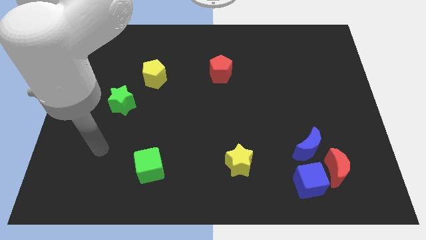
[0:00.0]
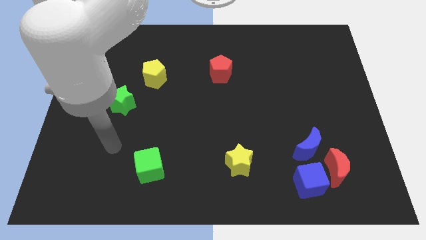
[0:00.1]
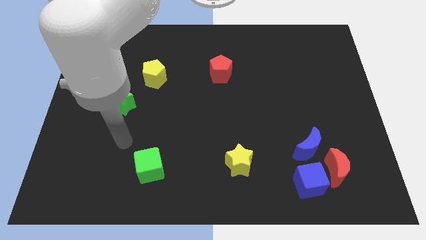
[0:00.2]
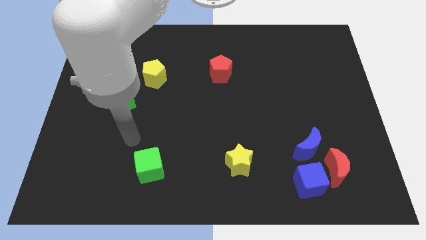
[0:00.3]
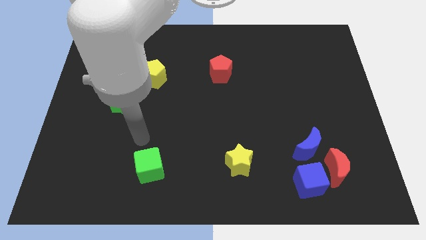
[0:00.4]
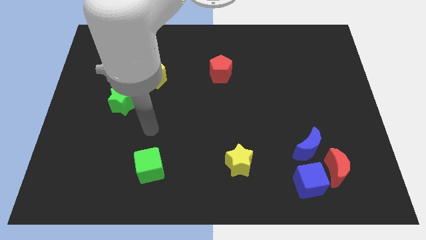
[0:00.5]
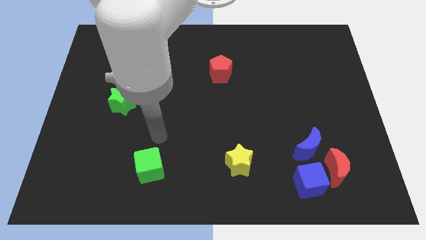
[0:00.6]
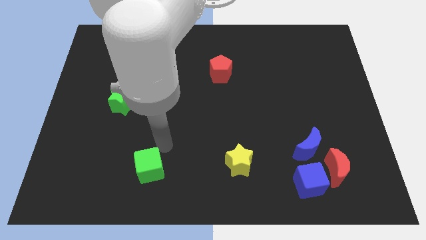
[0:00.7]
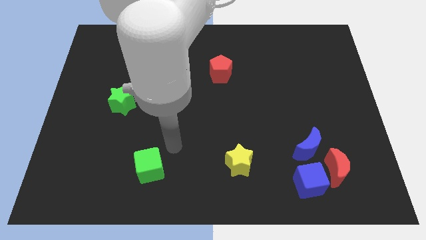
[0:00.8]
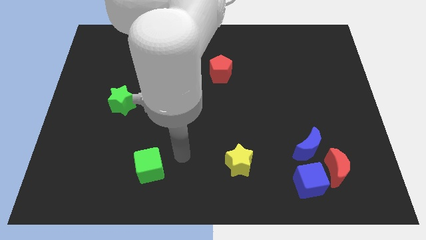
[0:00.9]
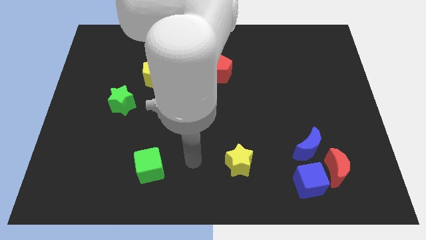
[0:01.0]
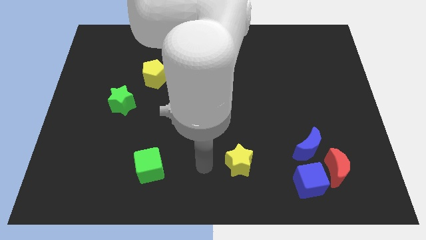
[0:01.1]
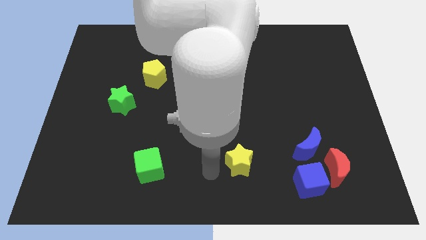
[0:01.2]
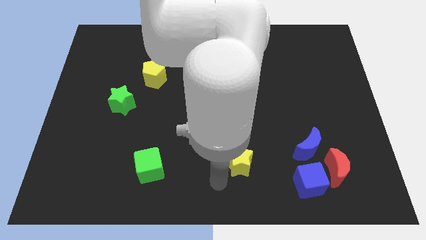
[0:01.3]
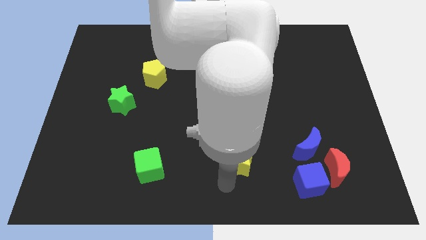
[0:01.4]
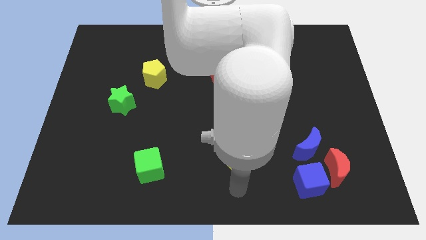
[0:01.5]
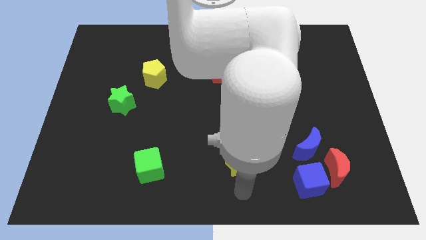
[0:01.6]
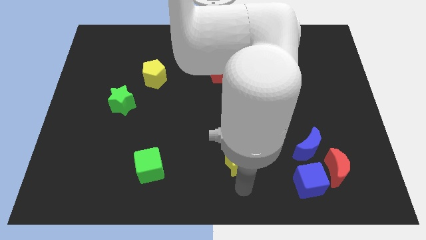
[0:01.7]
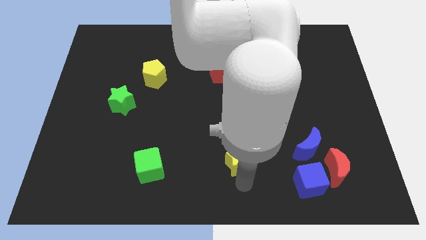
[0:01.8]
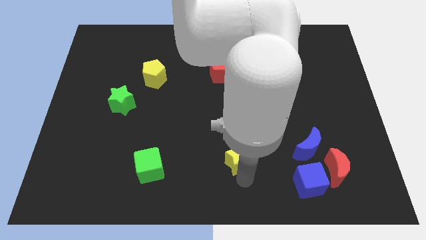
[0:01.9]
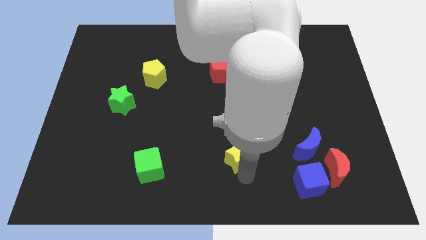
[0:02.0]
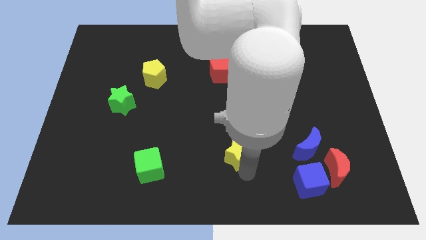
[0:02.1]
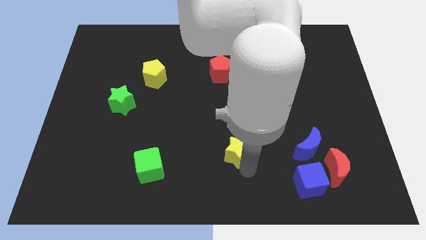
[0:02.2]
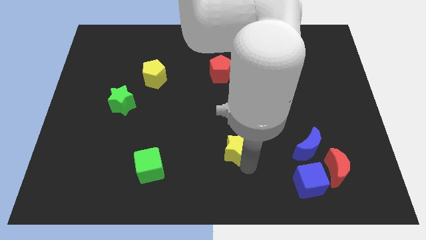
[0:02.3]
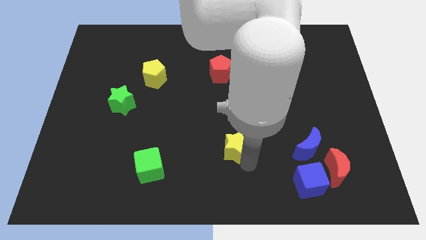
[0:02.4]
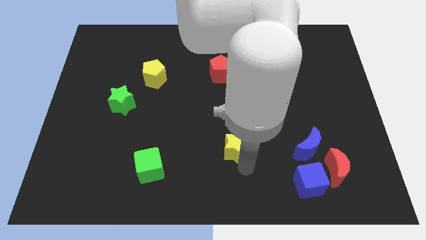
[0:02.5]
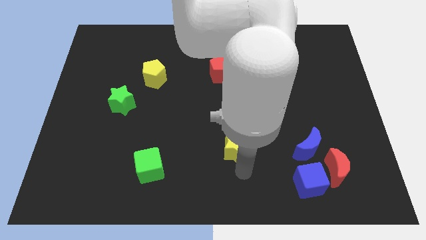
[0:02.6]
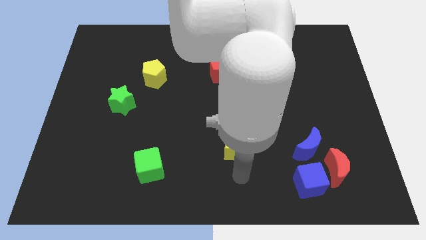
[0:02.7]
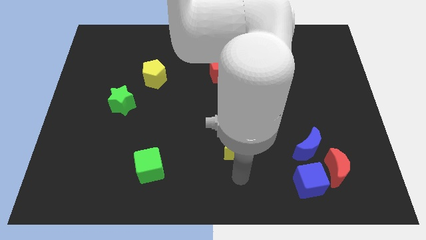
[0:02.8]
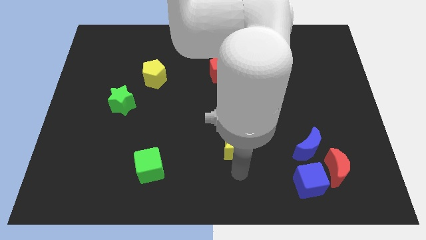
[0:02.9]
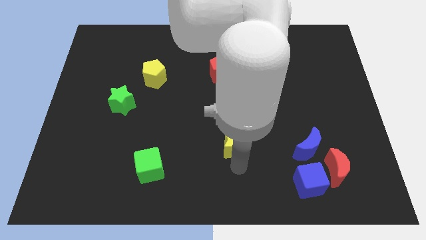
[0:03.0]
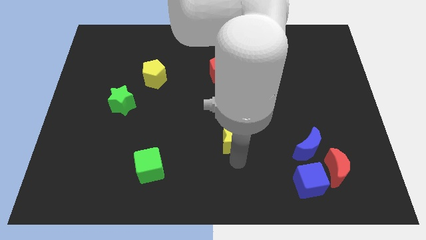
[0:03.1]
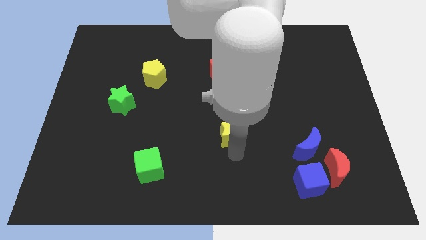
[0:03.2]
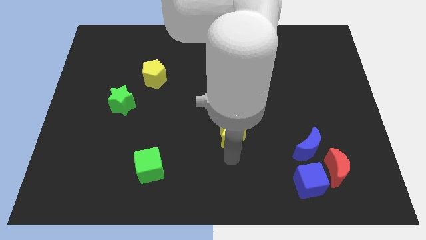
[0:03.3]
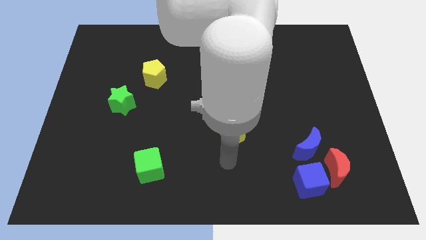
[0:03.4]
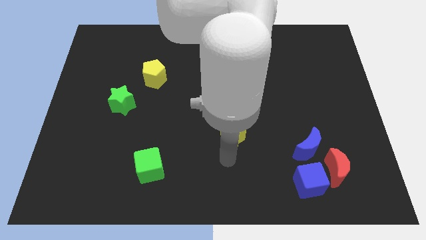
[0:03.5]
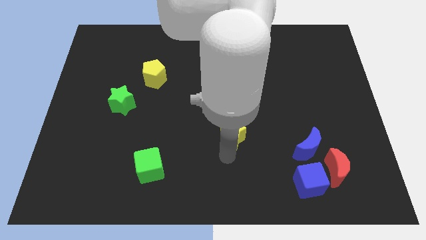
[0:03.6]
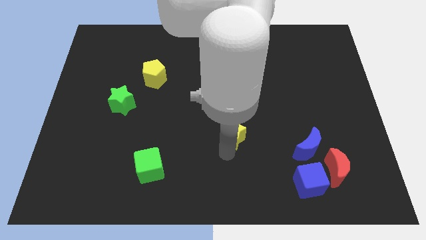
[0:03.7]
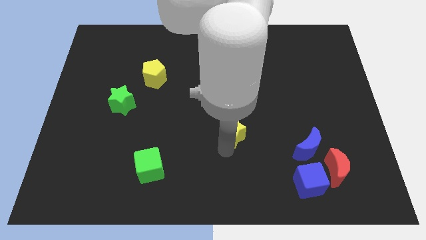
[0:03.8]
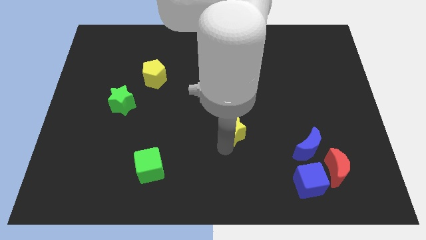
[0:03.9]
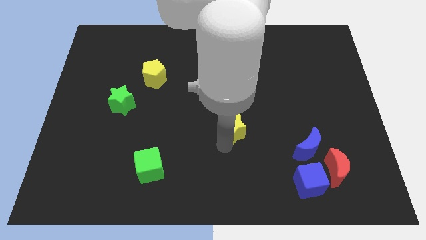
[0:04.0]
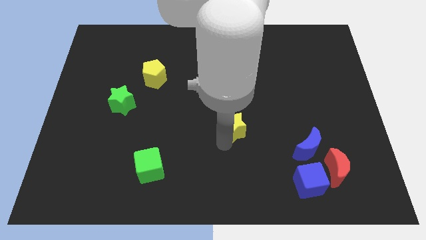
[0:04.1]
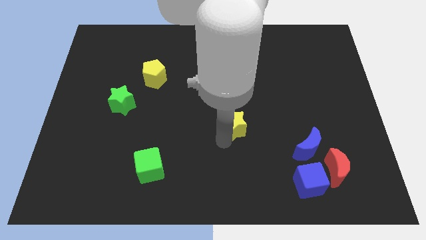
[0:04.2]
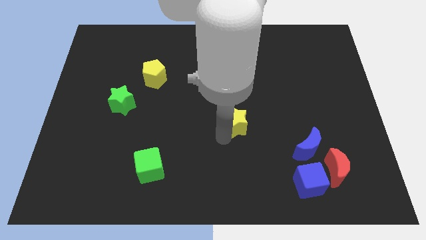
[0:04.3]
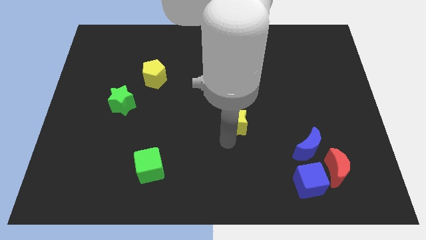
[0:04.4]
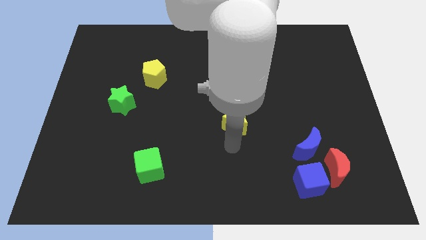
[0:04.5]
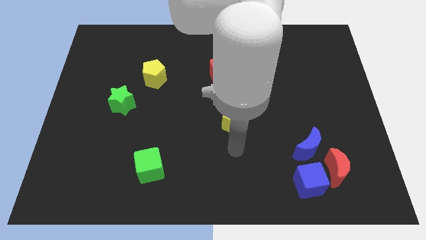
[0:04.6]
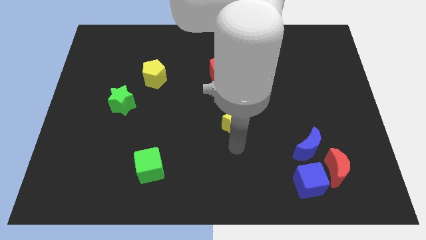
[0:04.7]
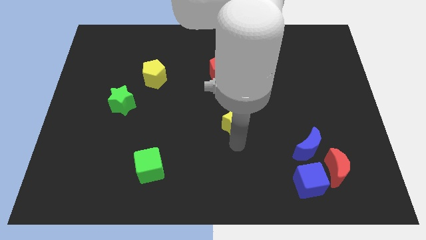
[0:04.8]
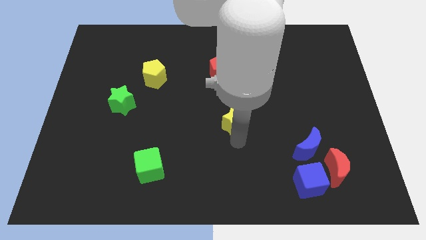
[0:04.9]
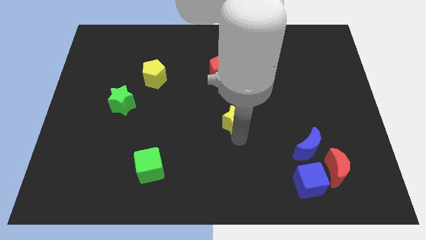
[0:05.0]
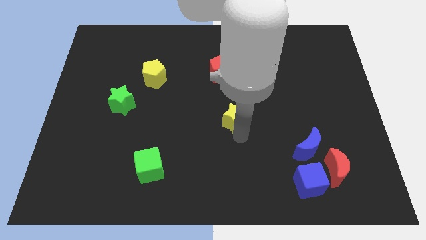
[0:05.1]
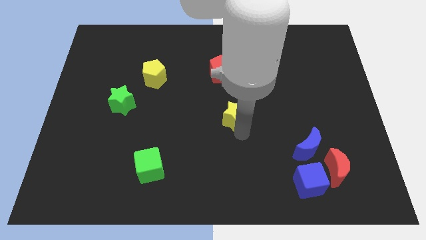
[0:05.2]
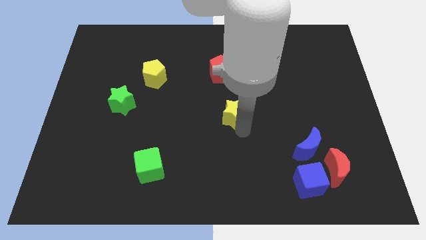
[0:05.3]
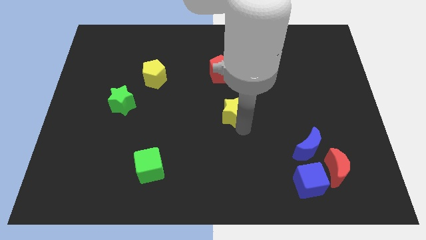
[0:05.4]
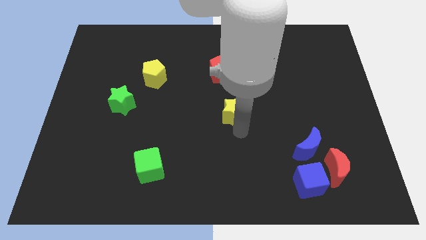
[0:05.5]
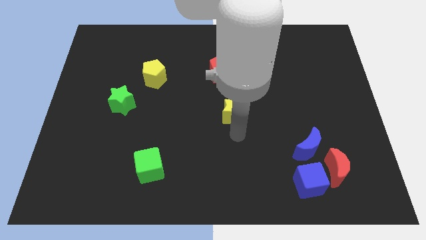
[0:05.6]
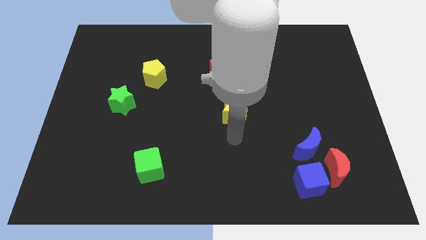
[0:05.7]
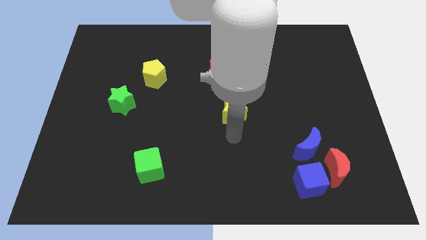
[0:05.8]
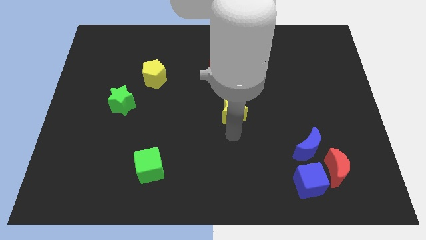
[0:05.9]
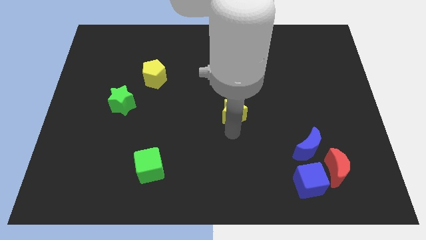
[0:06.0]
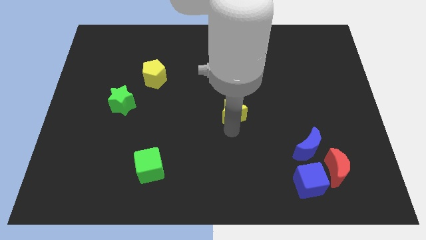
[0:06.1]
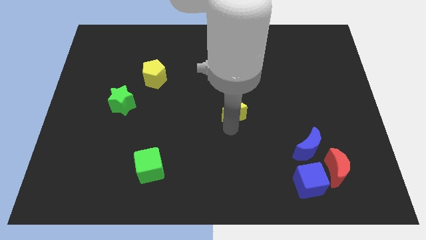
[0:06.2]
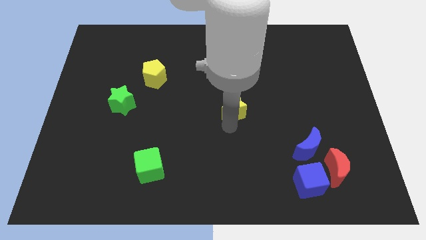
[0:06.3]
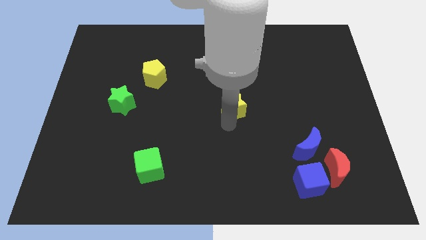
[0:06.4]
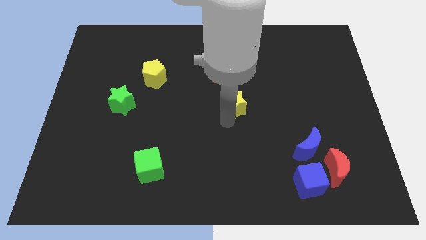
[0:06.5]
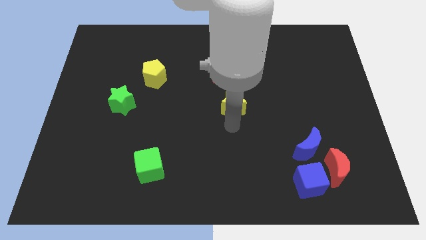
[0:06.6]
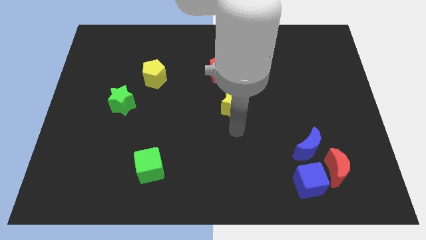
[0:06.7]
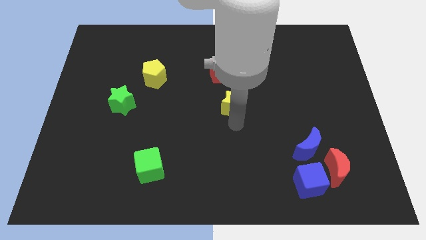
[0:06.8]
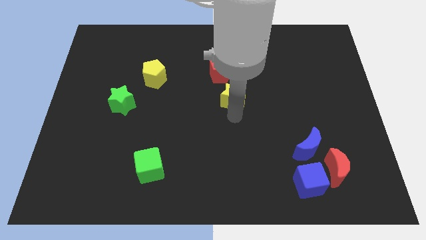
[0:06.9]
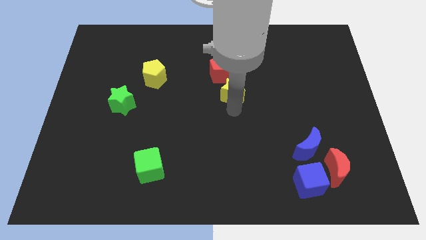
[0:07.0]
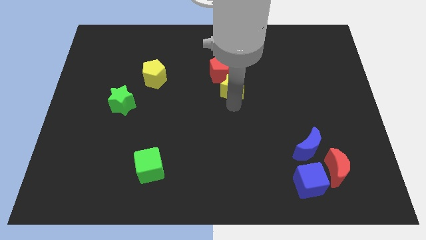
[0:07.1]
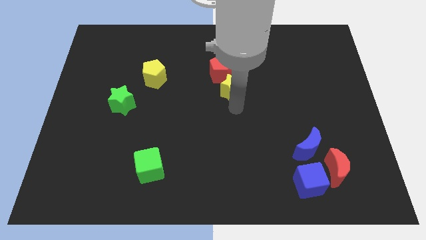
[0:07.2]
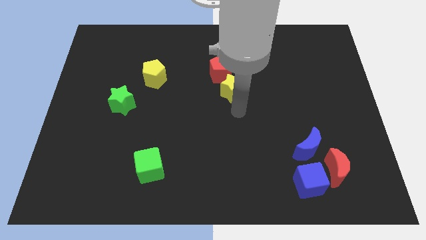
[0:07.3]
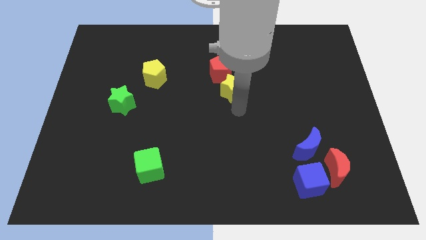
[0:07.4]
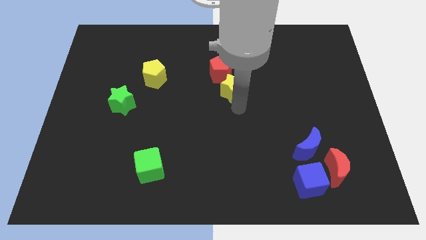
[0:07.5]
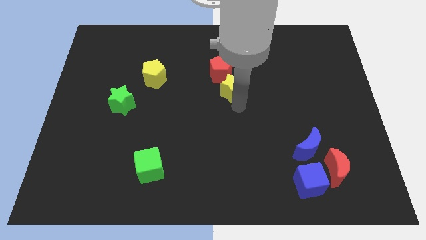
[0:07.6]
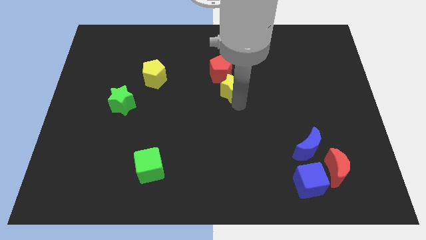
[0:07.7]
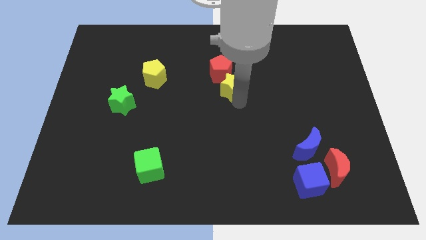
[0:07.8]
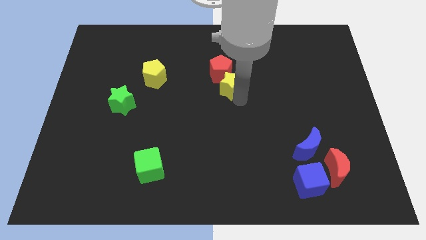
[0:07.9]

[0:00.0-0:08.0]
push the yellow star to the red pentagon
